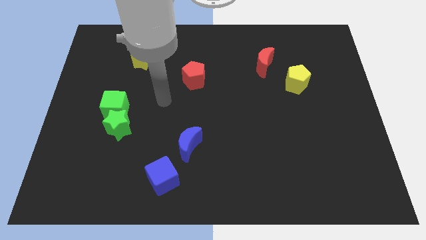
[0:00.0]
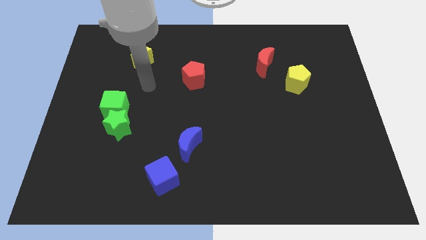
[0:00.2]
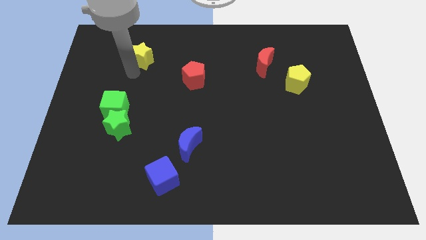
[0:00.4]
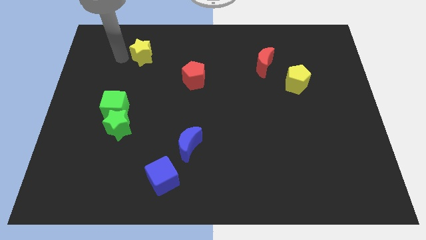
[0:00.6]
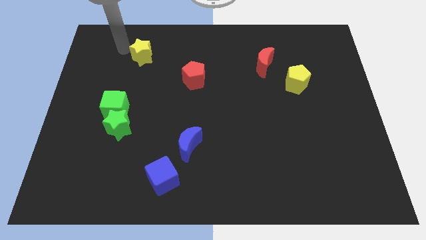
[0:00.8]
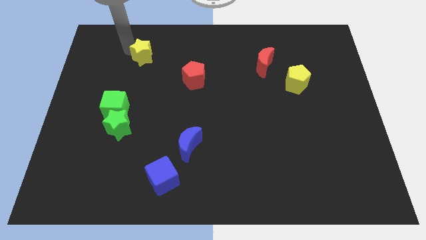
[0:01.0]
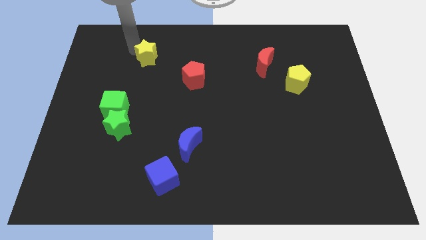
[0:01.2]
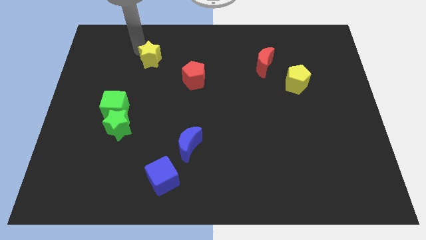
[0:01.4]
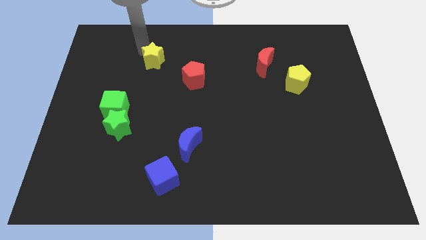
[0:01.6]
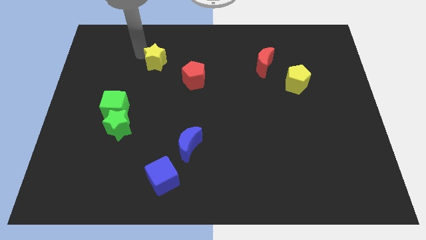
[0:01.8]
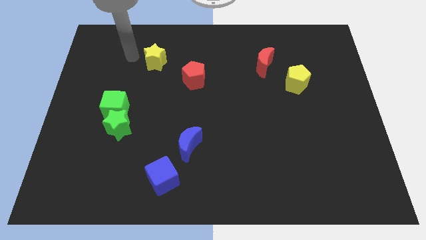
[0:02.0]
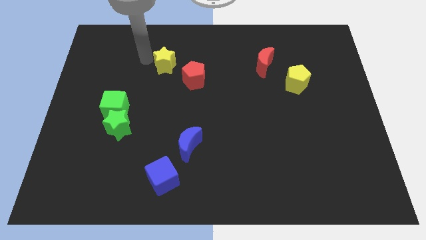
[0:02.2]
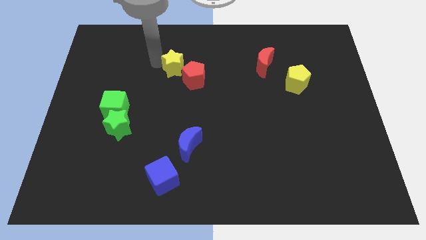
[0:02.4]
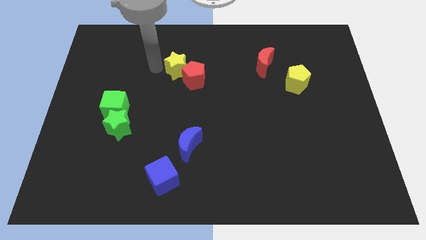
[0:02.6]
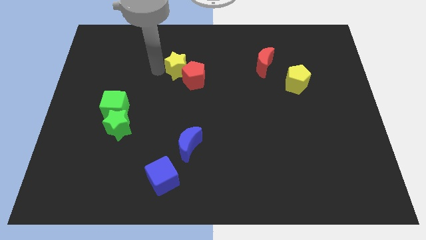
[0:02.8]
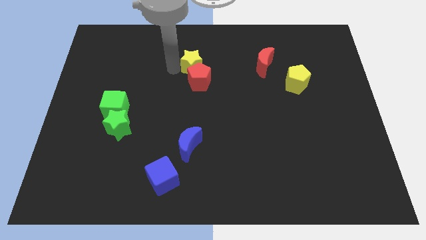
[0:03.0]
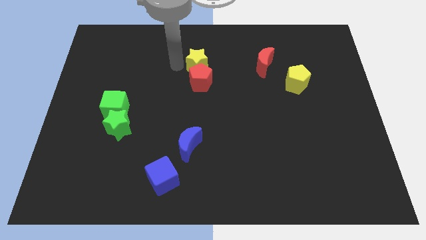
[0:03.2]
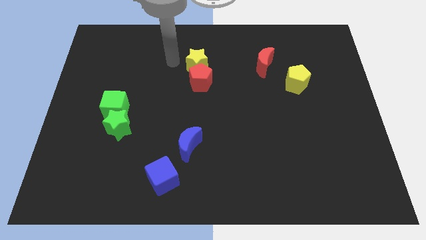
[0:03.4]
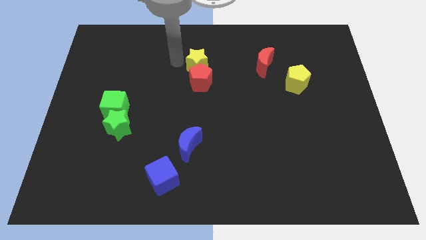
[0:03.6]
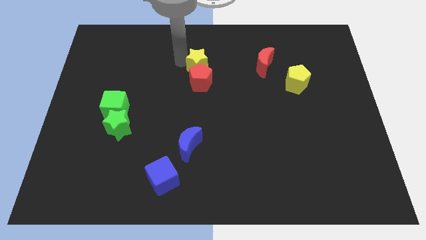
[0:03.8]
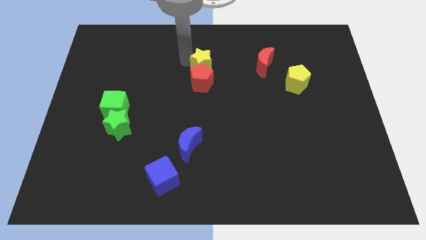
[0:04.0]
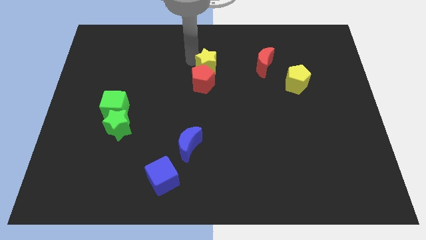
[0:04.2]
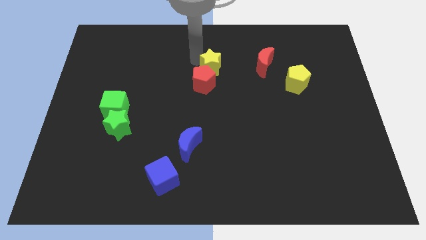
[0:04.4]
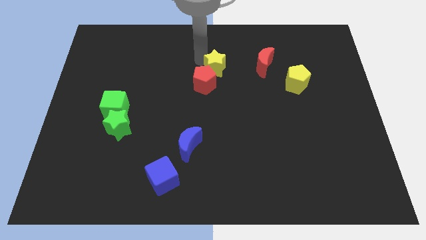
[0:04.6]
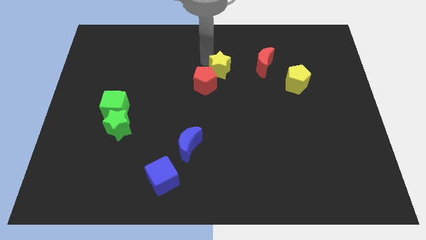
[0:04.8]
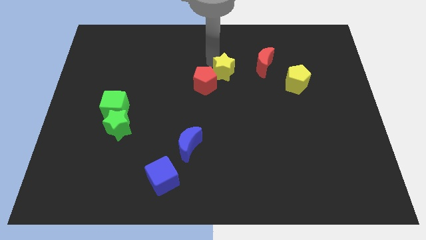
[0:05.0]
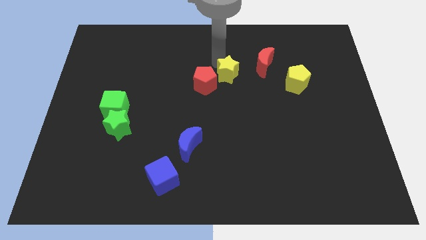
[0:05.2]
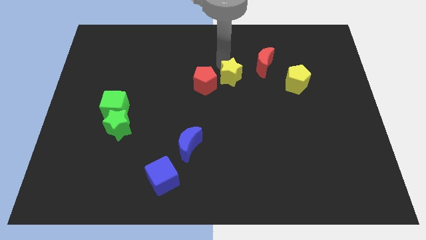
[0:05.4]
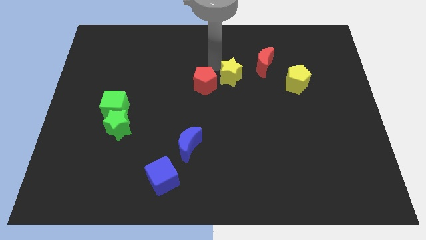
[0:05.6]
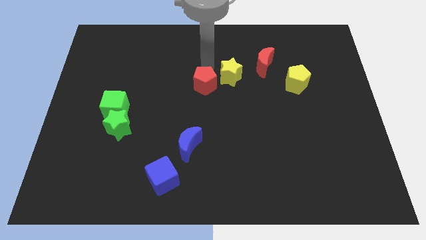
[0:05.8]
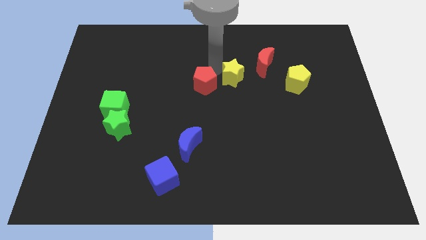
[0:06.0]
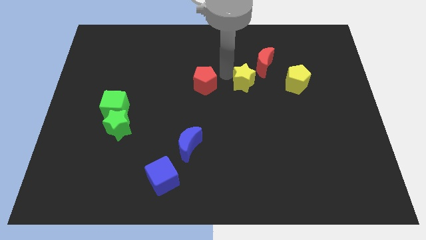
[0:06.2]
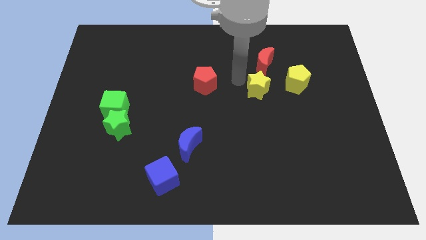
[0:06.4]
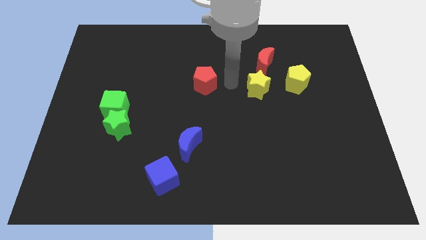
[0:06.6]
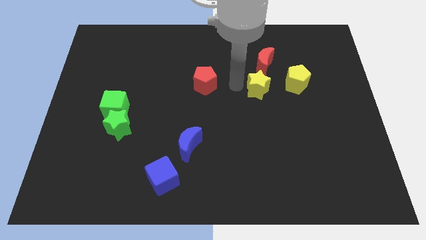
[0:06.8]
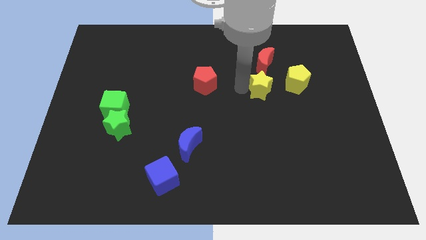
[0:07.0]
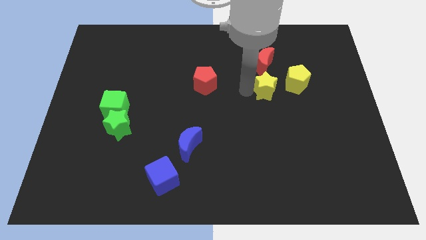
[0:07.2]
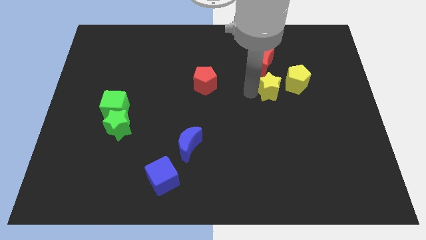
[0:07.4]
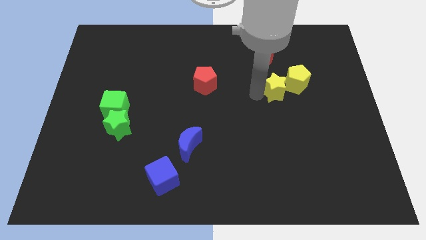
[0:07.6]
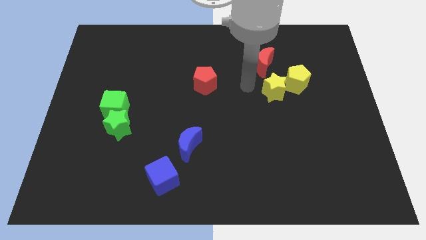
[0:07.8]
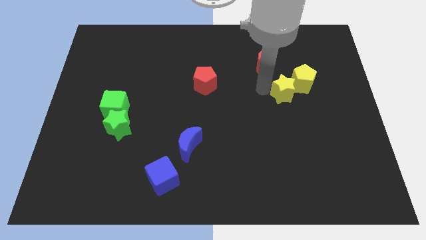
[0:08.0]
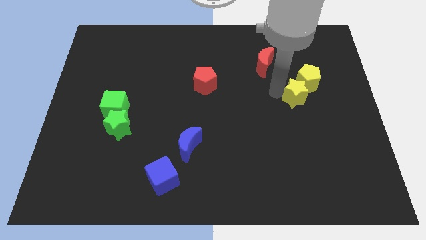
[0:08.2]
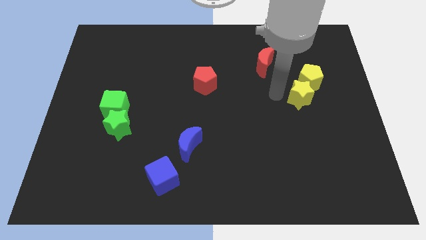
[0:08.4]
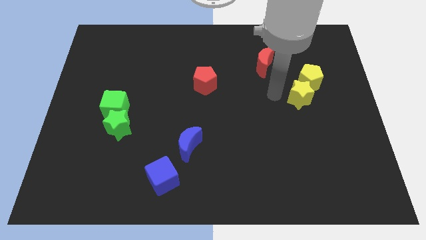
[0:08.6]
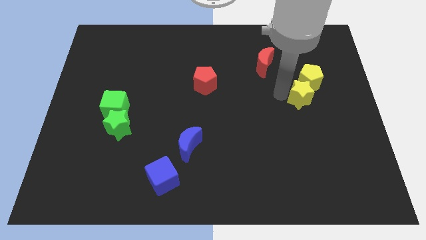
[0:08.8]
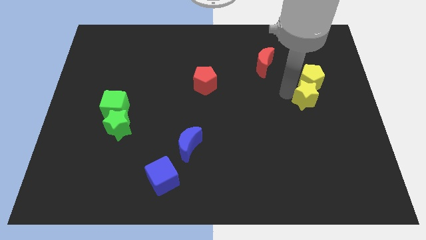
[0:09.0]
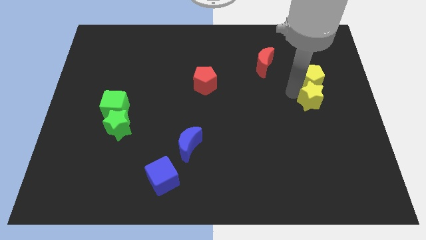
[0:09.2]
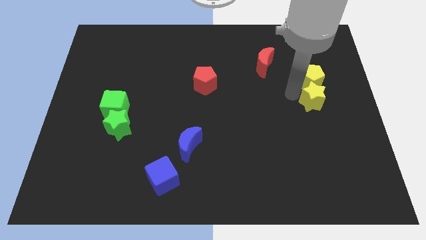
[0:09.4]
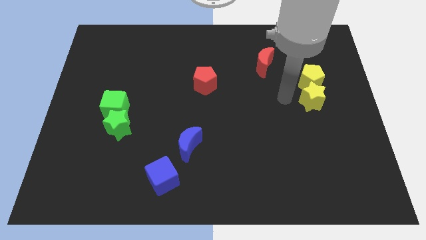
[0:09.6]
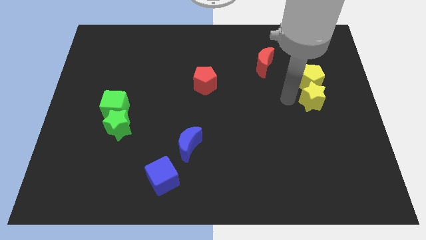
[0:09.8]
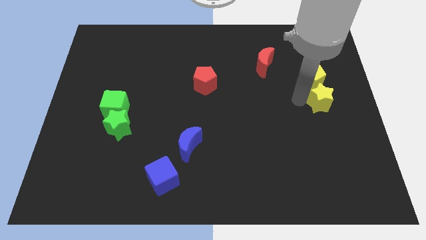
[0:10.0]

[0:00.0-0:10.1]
push the yellow star to the right side of the board
